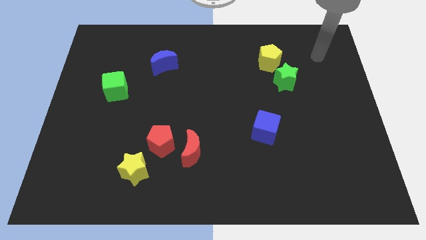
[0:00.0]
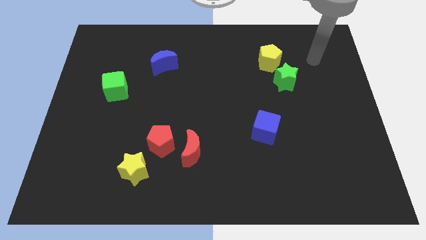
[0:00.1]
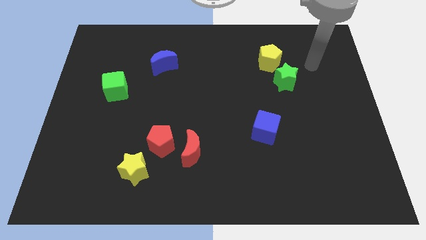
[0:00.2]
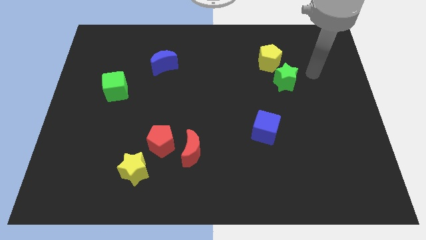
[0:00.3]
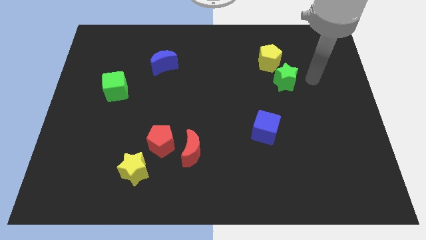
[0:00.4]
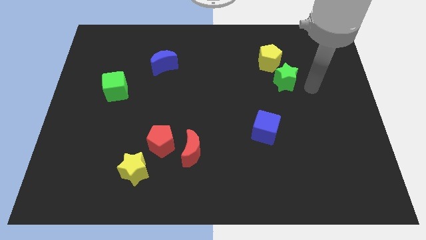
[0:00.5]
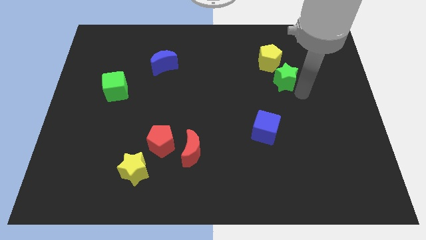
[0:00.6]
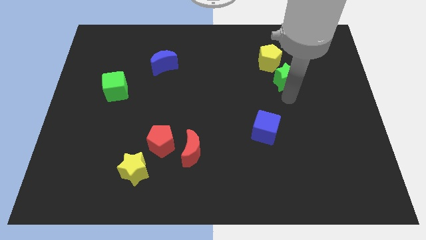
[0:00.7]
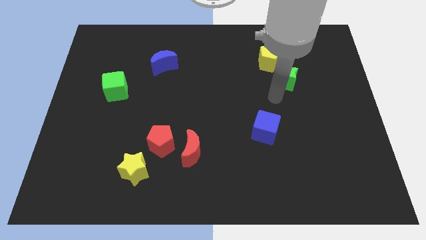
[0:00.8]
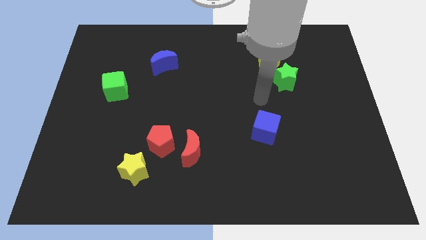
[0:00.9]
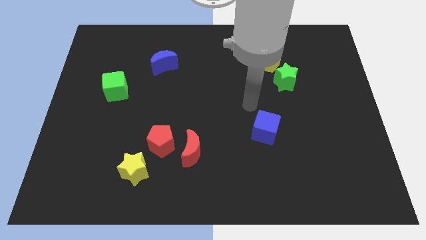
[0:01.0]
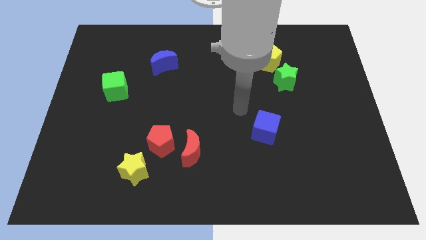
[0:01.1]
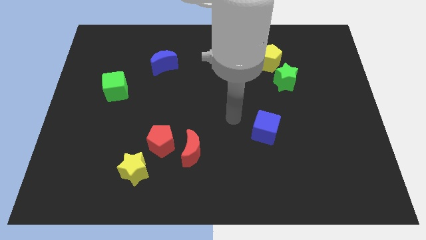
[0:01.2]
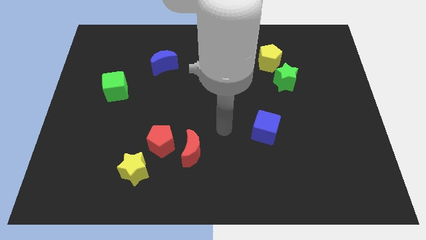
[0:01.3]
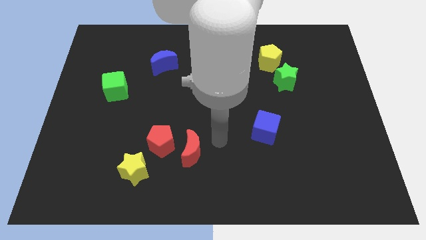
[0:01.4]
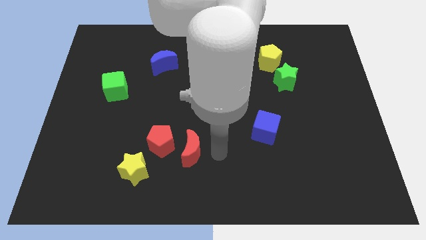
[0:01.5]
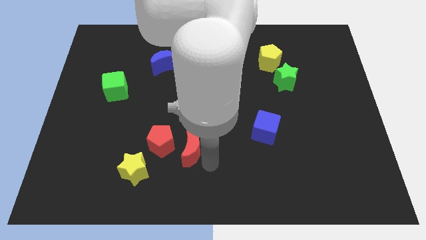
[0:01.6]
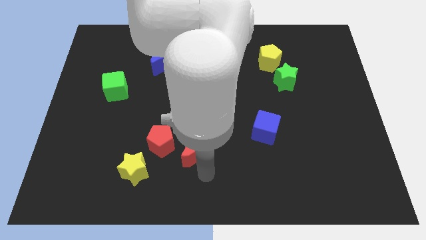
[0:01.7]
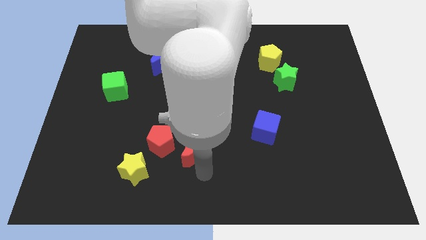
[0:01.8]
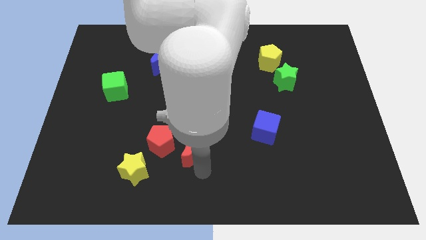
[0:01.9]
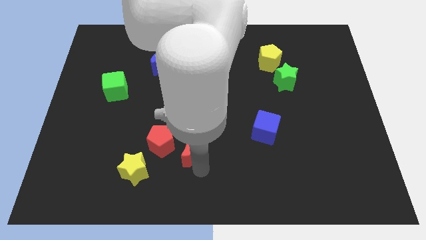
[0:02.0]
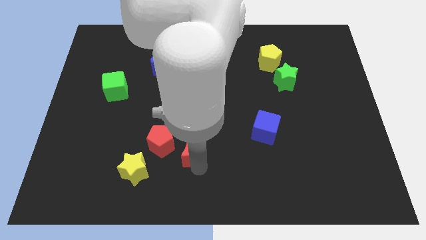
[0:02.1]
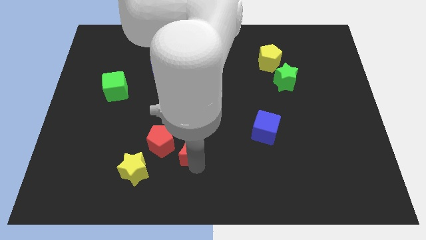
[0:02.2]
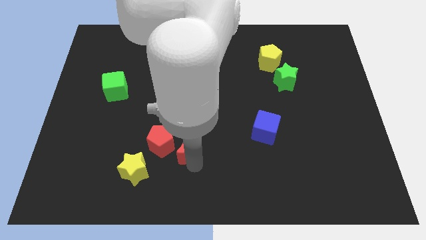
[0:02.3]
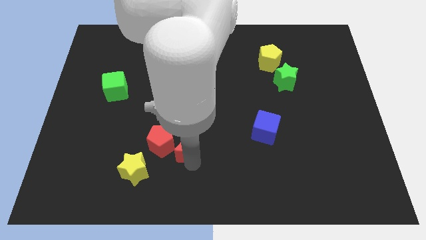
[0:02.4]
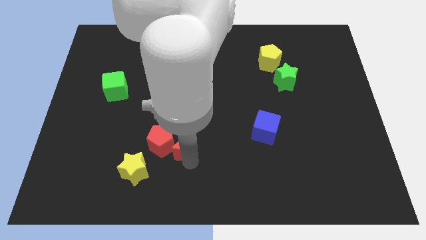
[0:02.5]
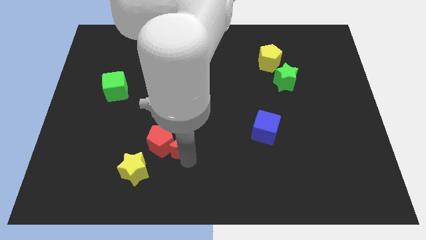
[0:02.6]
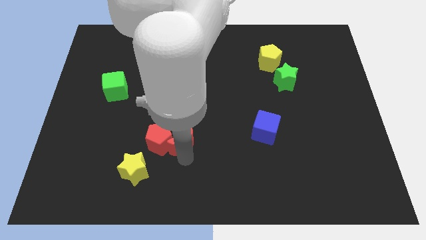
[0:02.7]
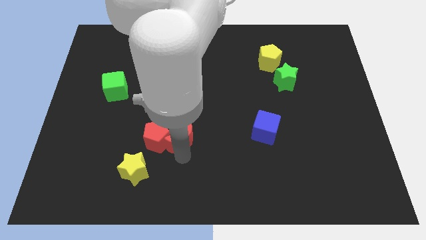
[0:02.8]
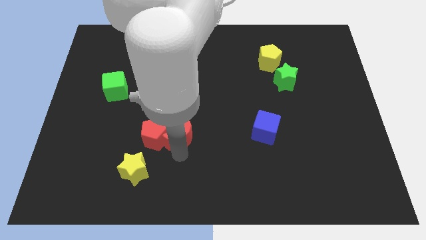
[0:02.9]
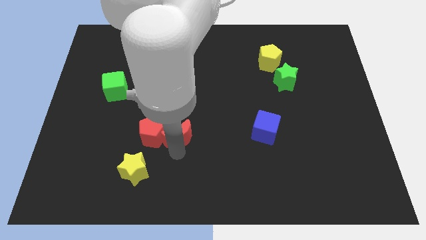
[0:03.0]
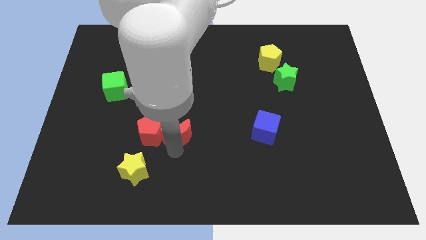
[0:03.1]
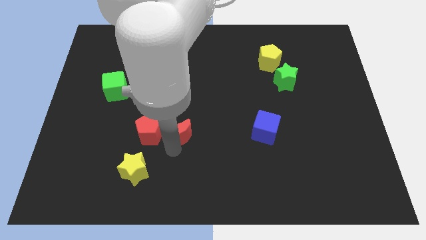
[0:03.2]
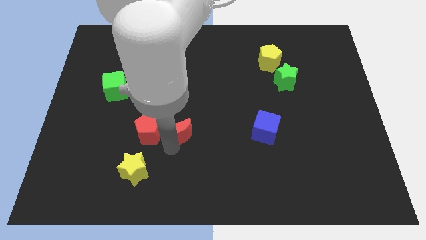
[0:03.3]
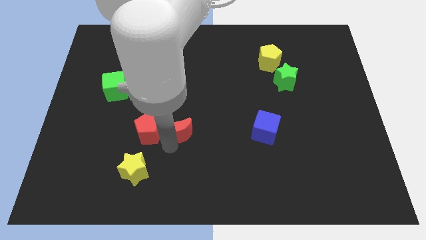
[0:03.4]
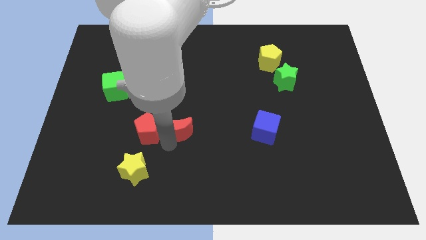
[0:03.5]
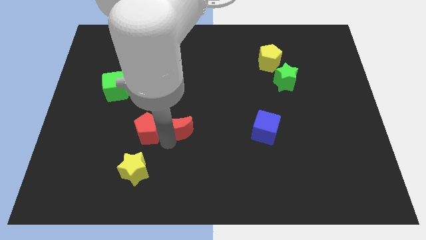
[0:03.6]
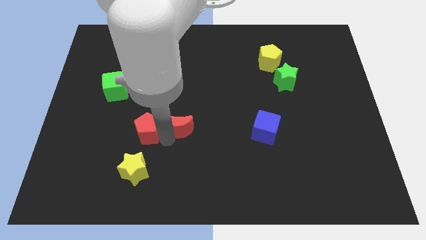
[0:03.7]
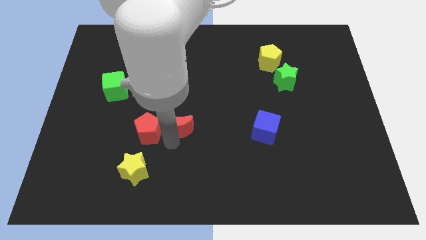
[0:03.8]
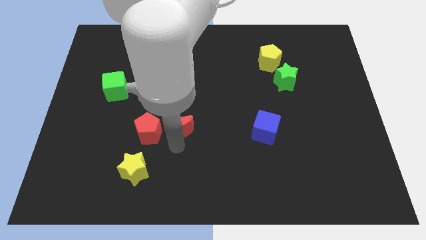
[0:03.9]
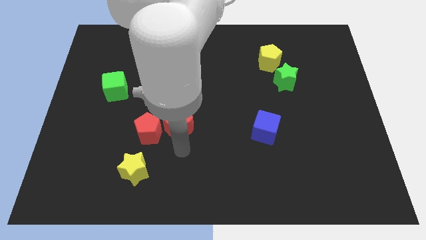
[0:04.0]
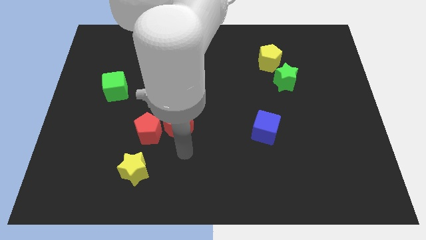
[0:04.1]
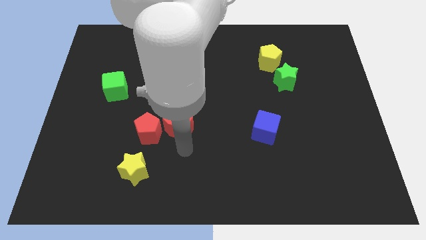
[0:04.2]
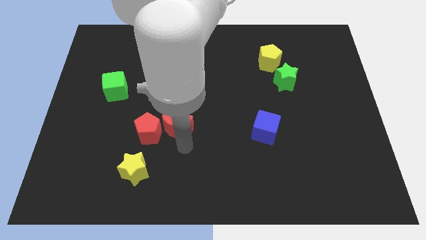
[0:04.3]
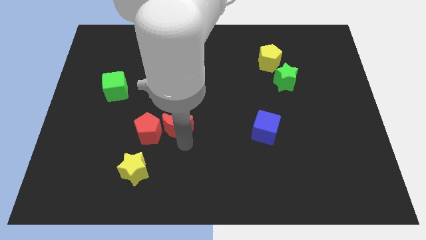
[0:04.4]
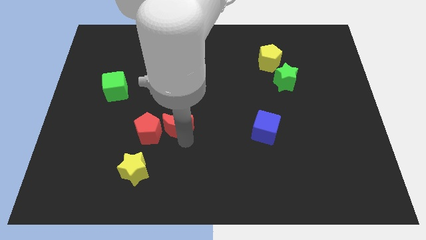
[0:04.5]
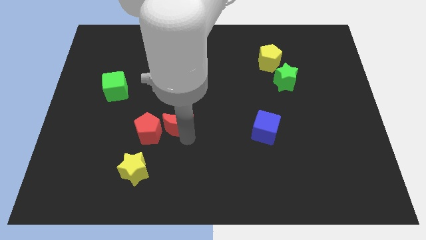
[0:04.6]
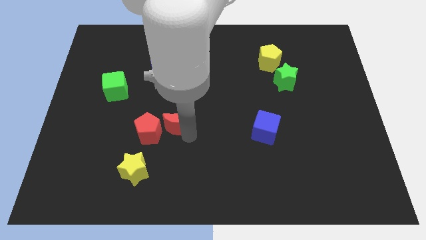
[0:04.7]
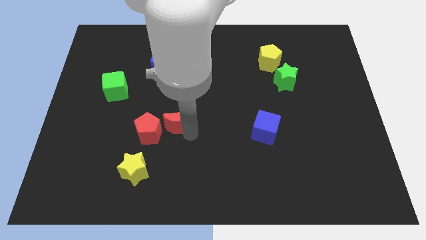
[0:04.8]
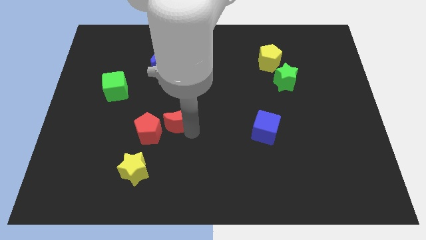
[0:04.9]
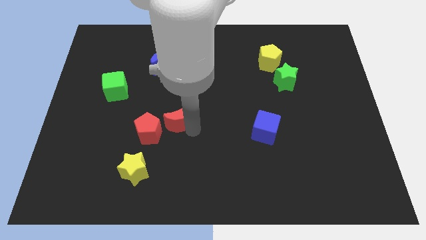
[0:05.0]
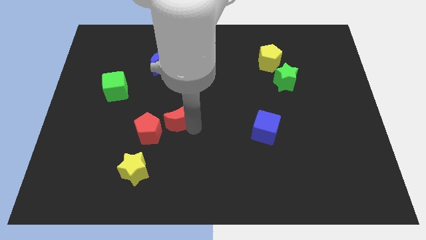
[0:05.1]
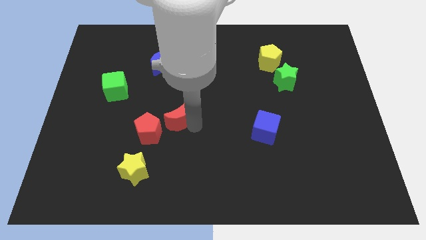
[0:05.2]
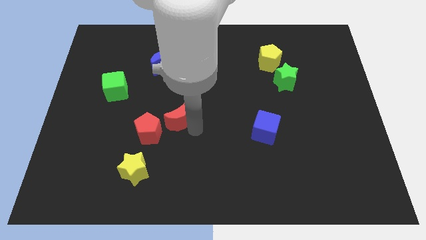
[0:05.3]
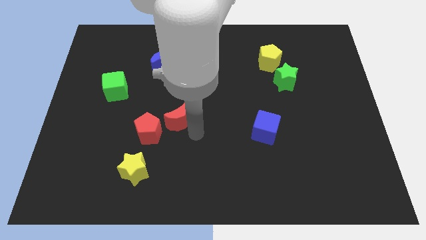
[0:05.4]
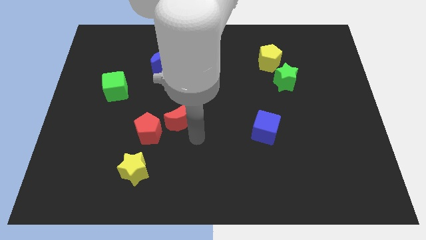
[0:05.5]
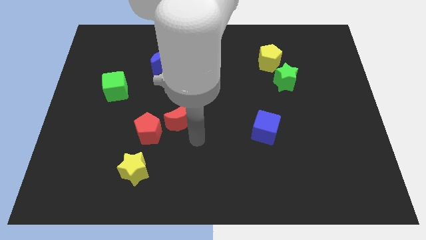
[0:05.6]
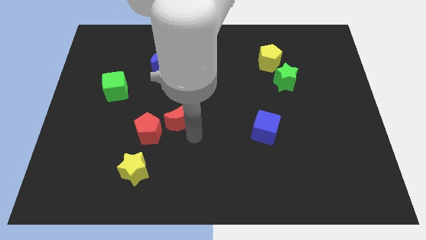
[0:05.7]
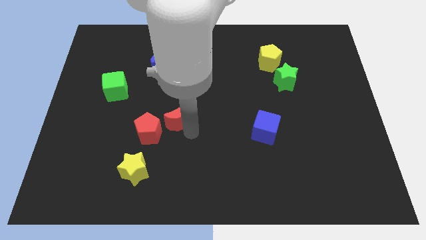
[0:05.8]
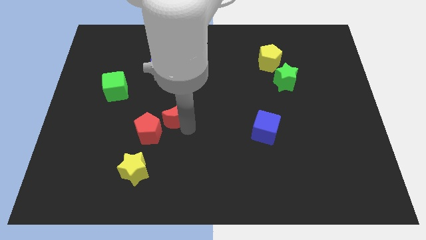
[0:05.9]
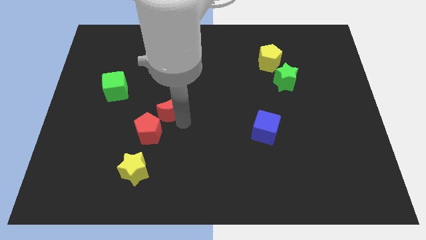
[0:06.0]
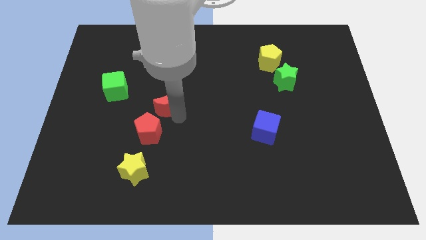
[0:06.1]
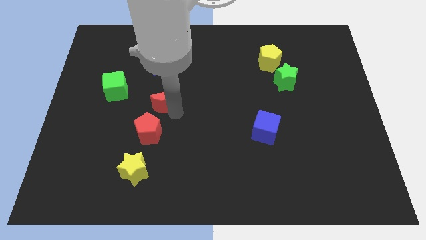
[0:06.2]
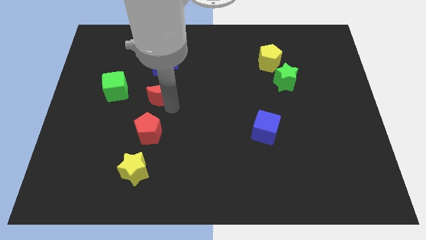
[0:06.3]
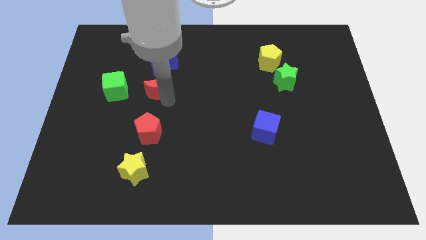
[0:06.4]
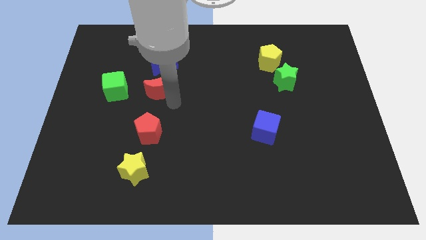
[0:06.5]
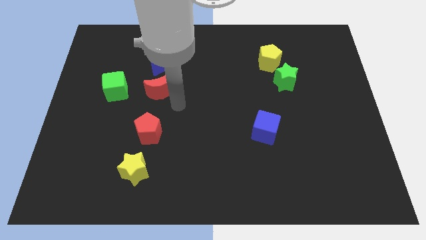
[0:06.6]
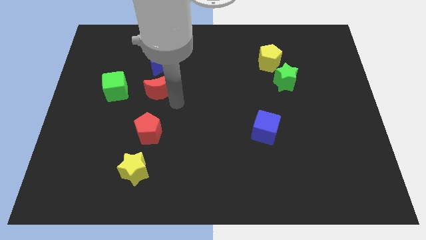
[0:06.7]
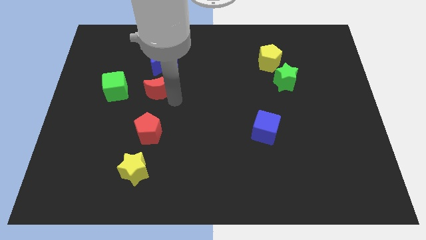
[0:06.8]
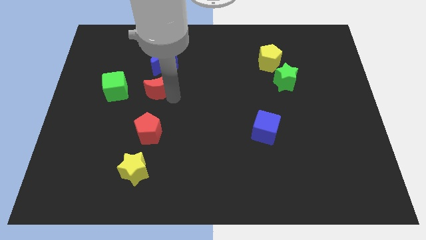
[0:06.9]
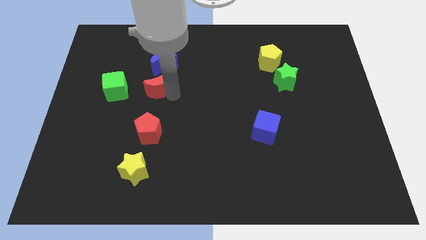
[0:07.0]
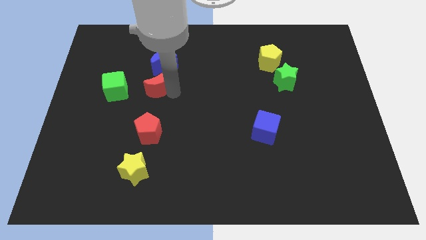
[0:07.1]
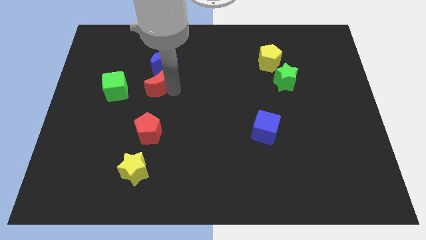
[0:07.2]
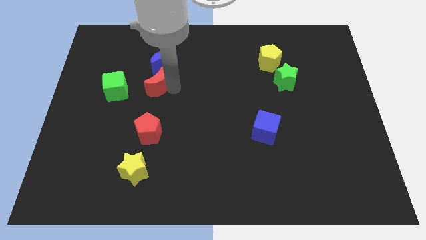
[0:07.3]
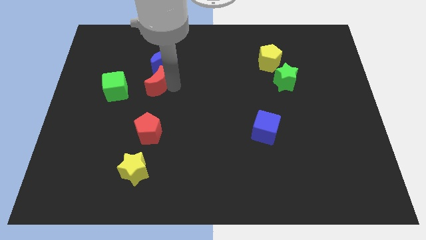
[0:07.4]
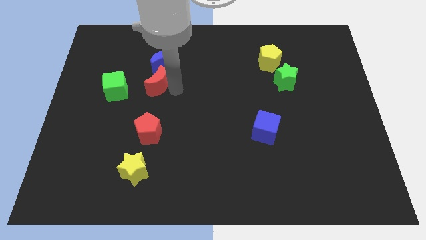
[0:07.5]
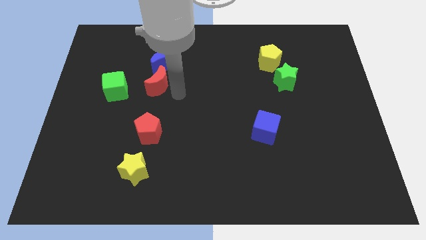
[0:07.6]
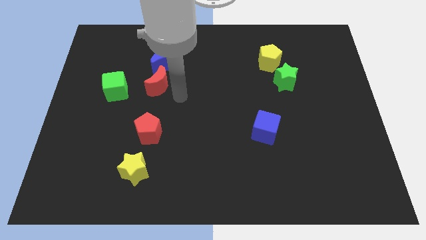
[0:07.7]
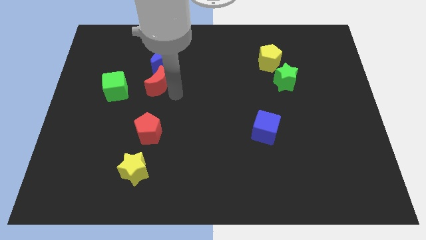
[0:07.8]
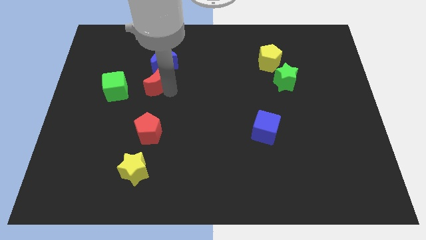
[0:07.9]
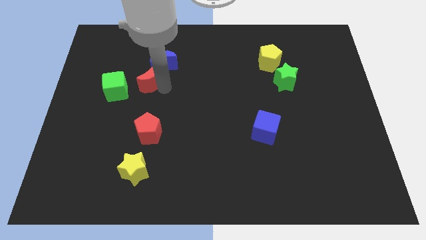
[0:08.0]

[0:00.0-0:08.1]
push the red moon to the top right of the green cube
